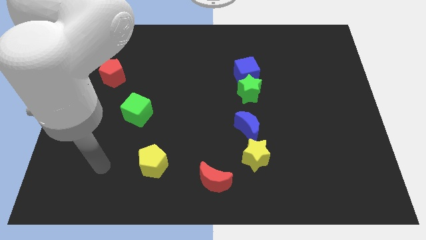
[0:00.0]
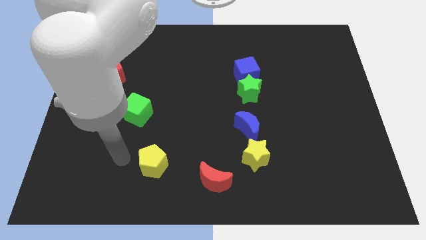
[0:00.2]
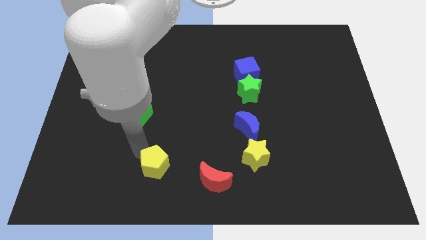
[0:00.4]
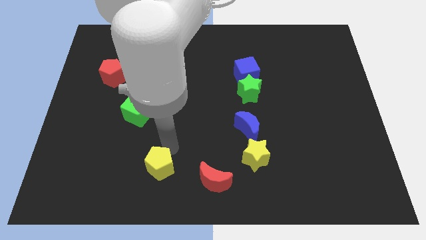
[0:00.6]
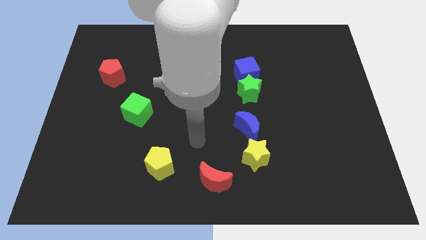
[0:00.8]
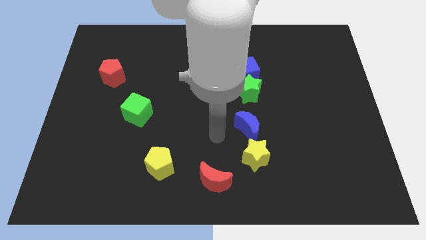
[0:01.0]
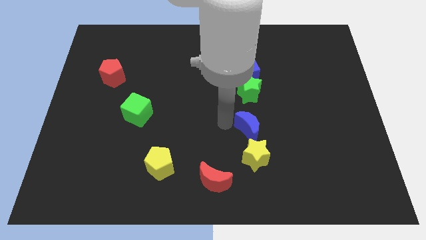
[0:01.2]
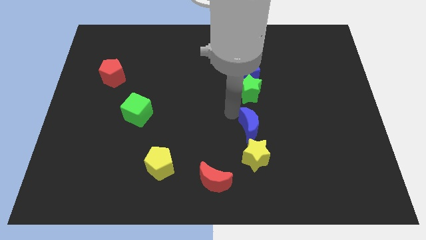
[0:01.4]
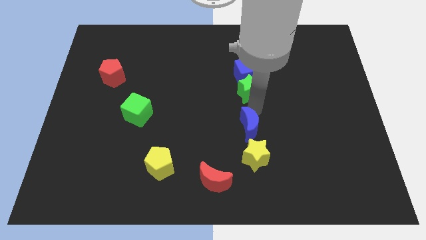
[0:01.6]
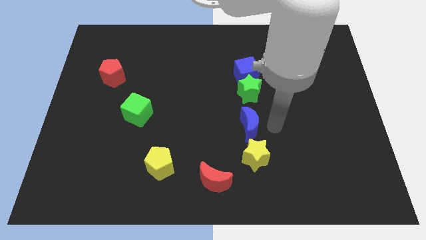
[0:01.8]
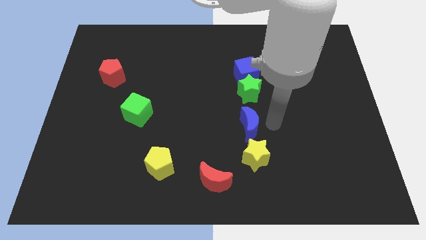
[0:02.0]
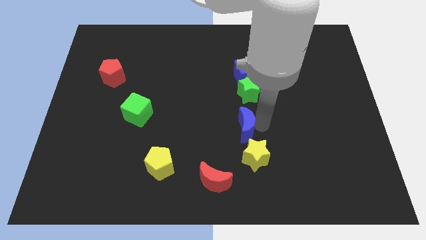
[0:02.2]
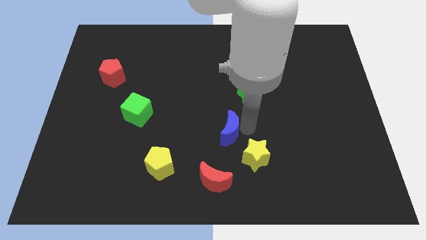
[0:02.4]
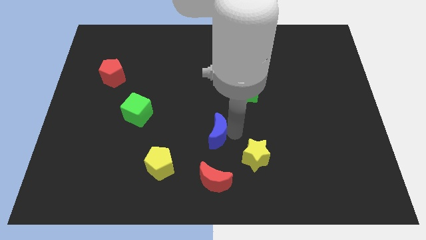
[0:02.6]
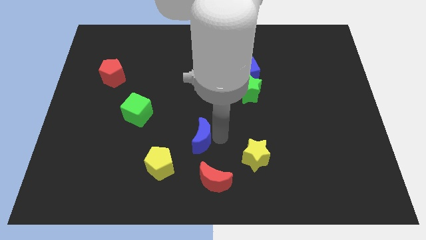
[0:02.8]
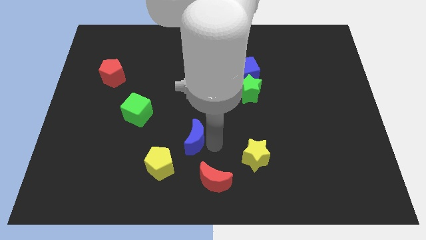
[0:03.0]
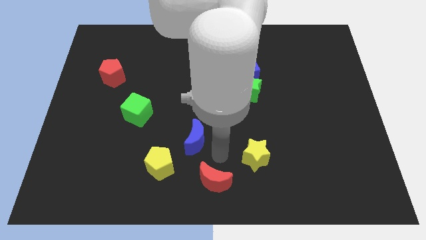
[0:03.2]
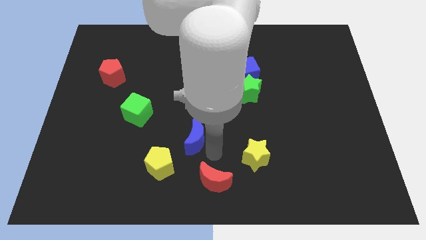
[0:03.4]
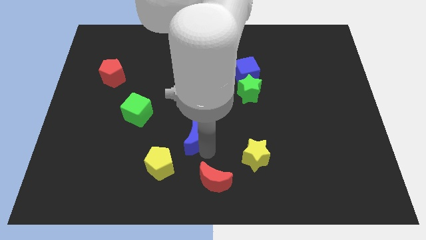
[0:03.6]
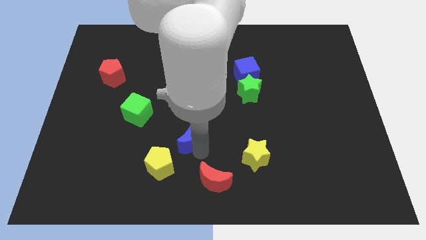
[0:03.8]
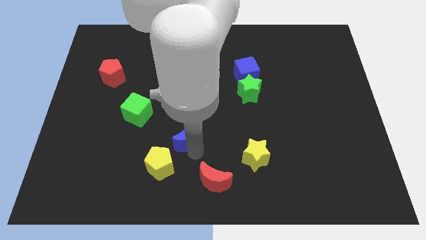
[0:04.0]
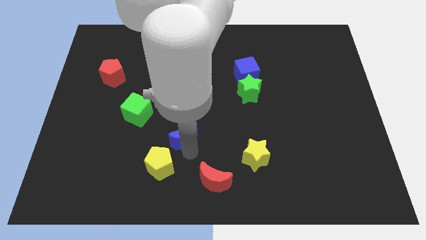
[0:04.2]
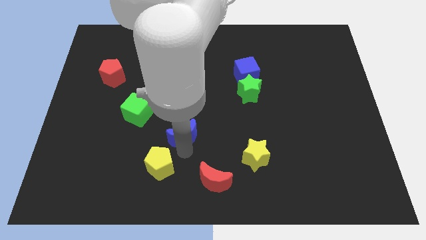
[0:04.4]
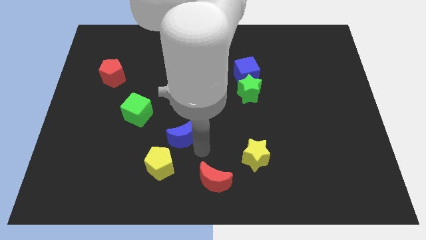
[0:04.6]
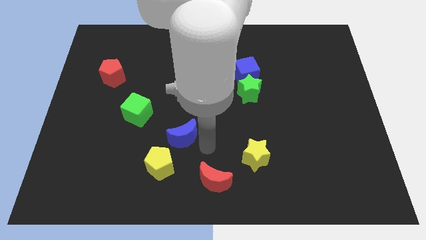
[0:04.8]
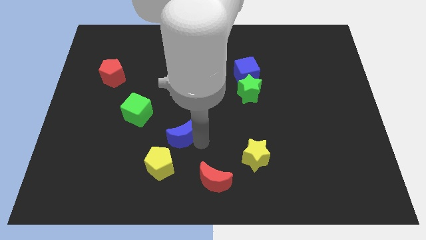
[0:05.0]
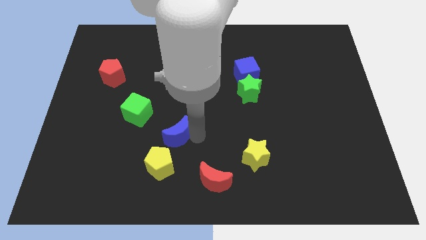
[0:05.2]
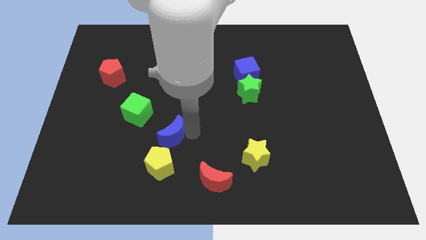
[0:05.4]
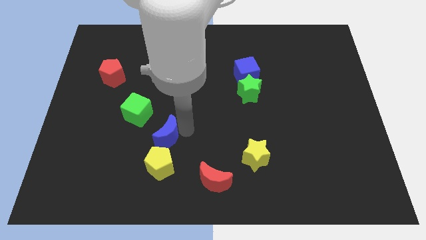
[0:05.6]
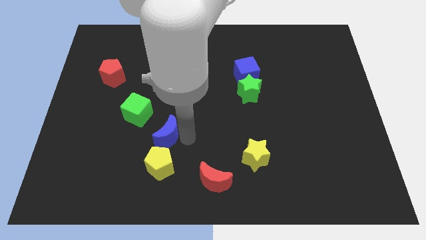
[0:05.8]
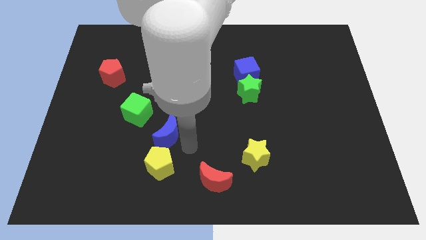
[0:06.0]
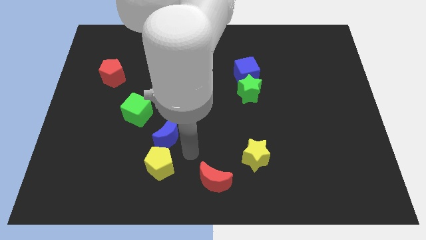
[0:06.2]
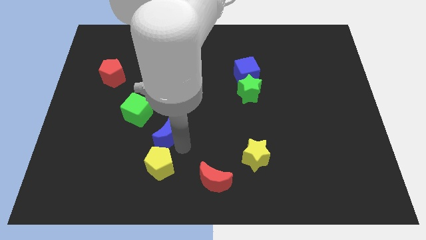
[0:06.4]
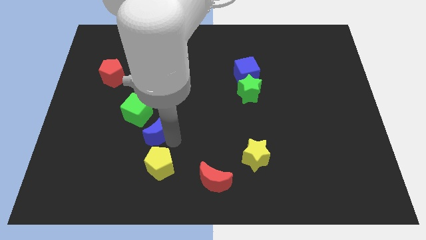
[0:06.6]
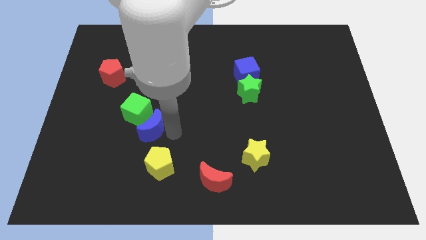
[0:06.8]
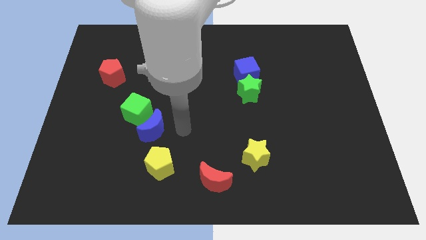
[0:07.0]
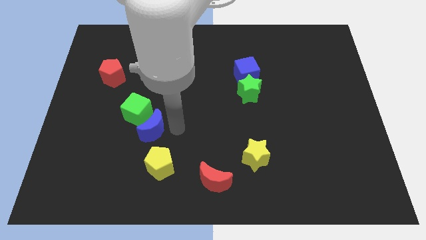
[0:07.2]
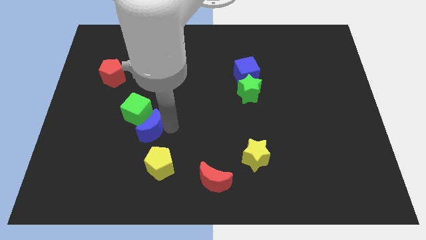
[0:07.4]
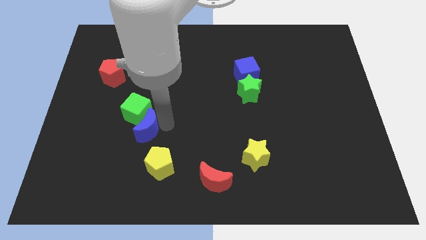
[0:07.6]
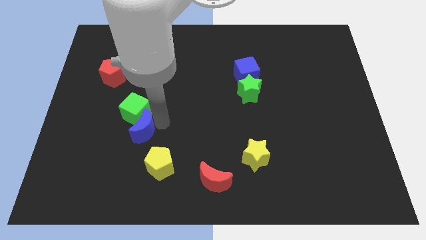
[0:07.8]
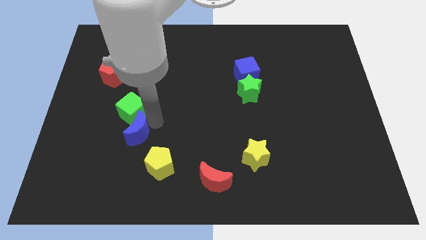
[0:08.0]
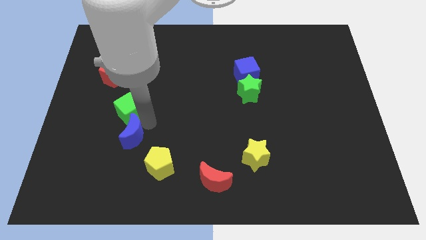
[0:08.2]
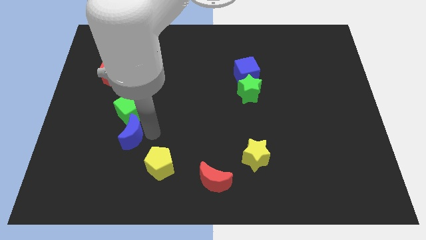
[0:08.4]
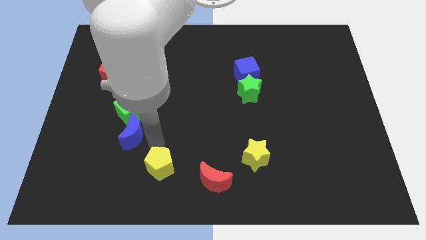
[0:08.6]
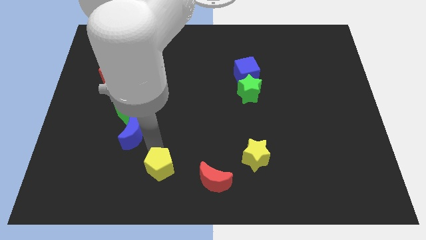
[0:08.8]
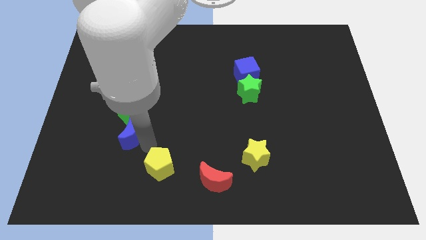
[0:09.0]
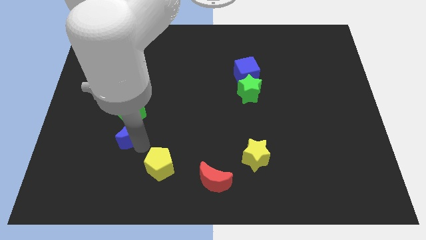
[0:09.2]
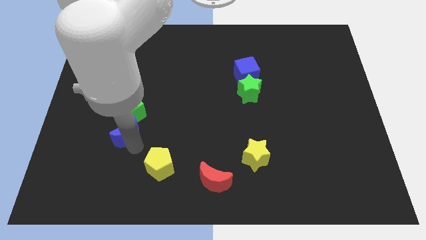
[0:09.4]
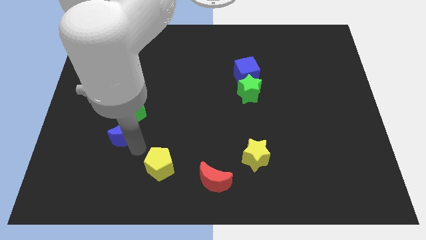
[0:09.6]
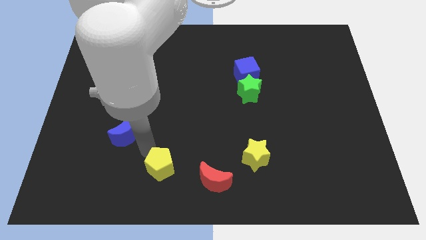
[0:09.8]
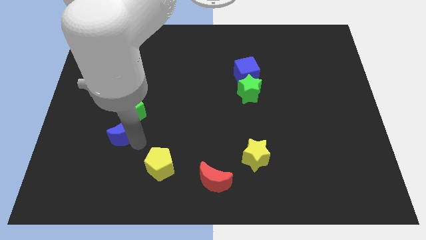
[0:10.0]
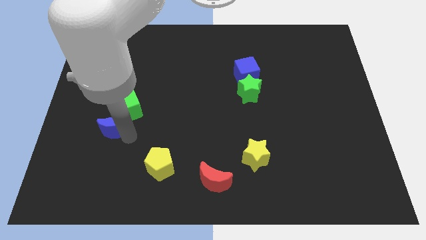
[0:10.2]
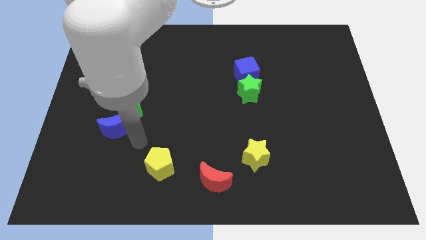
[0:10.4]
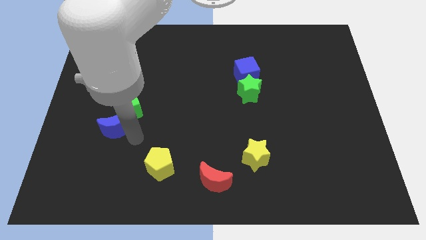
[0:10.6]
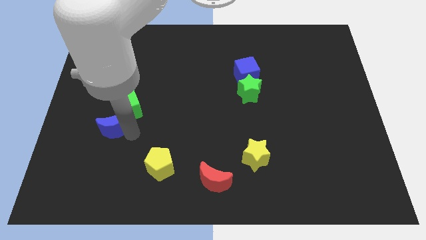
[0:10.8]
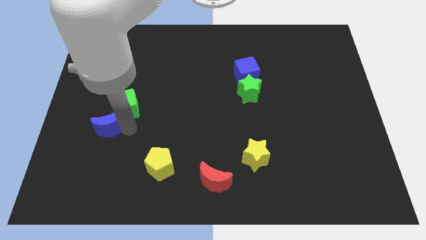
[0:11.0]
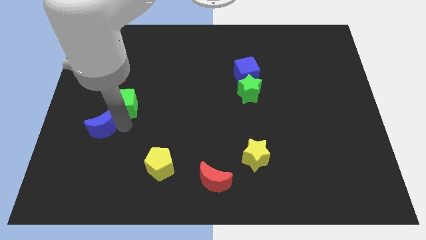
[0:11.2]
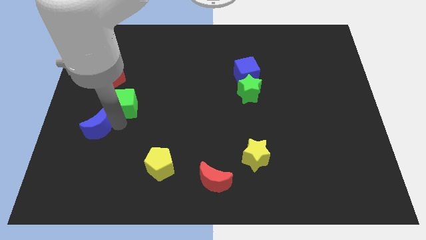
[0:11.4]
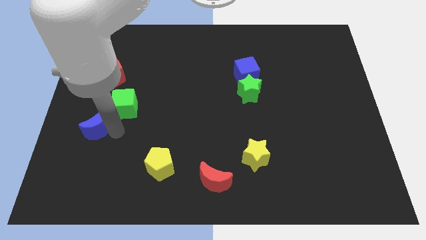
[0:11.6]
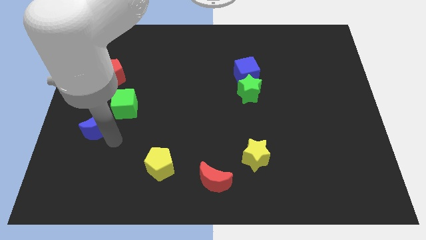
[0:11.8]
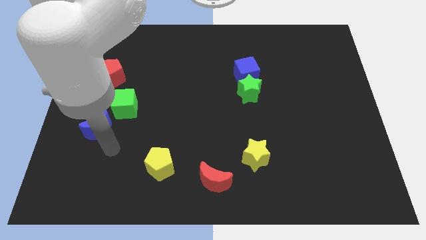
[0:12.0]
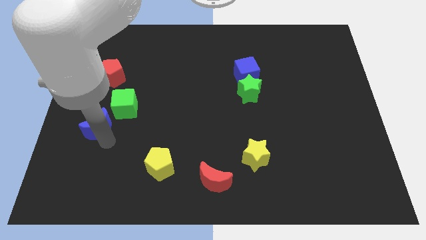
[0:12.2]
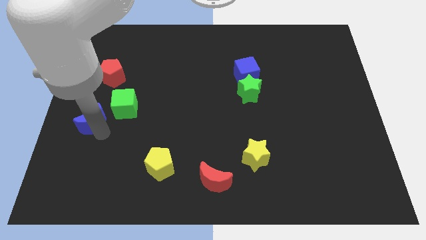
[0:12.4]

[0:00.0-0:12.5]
slide the blue moon to the center left

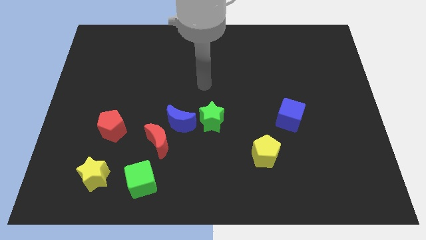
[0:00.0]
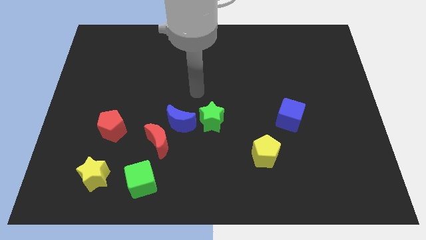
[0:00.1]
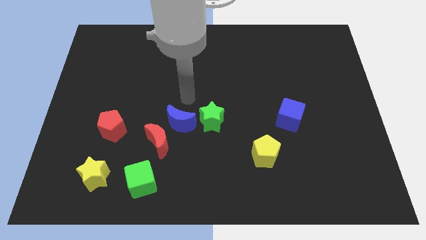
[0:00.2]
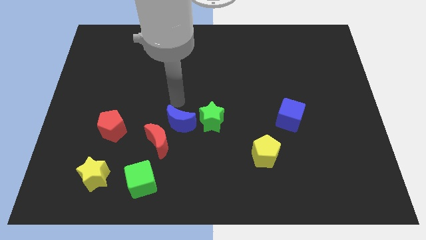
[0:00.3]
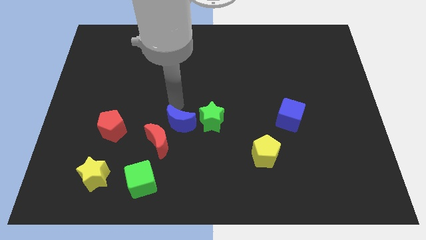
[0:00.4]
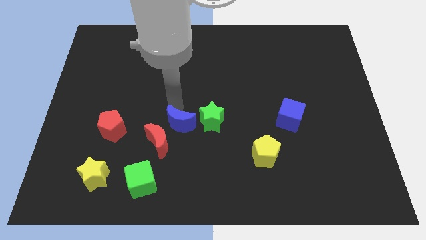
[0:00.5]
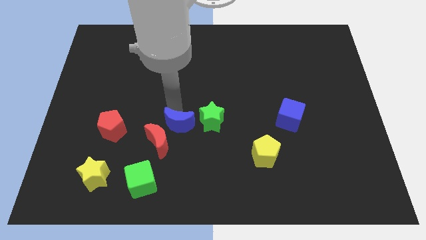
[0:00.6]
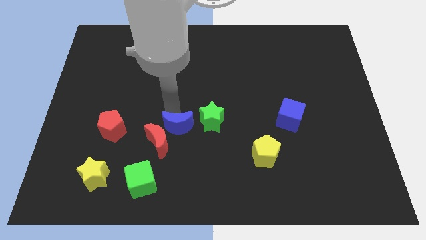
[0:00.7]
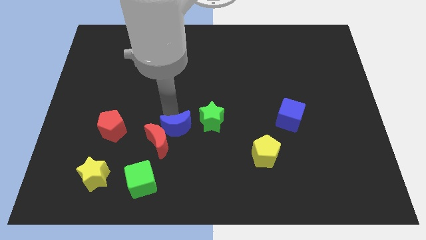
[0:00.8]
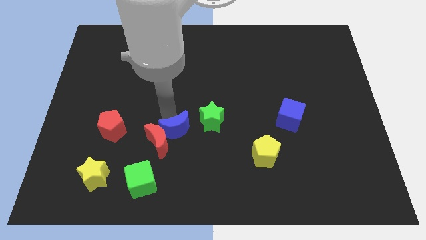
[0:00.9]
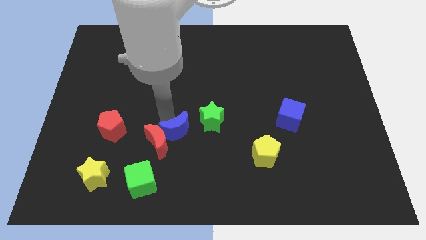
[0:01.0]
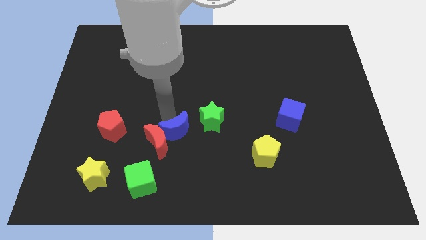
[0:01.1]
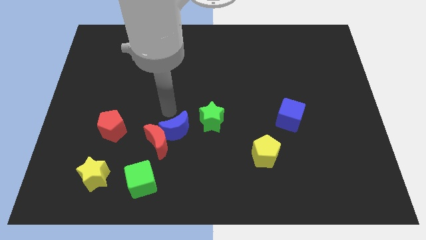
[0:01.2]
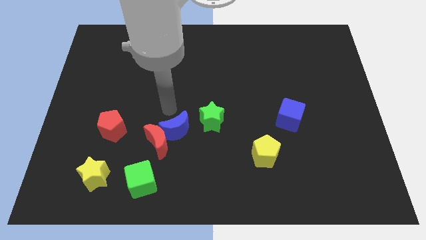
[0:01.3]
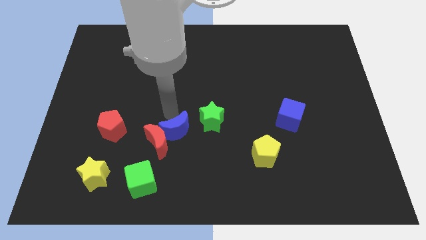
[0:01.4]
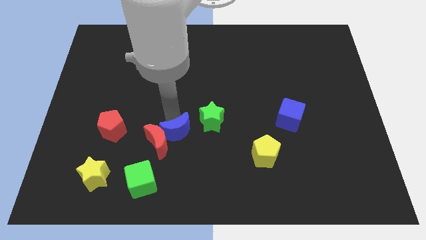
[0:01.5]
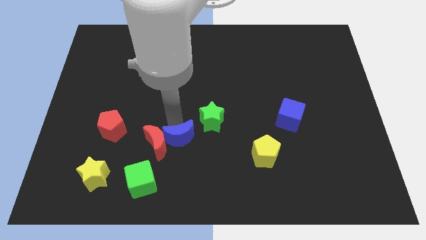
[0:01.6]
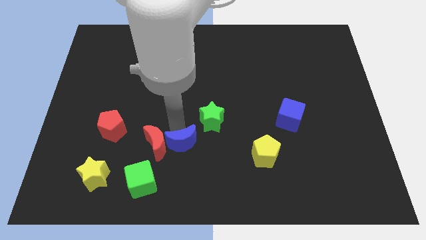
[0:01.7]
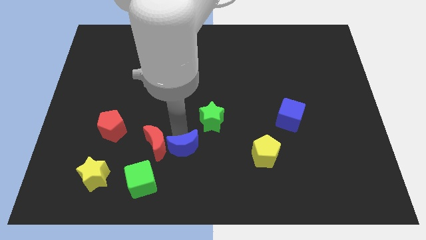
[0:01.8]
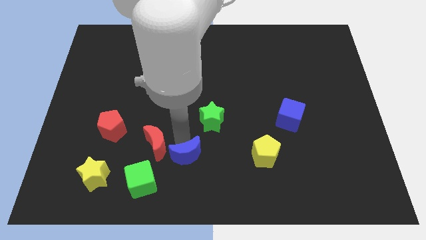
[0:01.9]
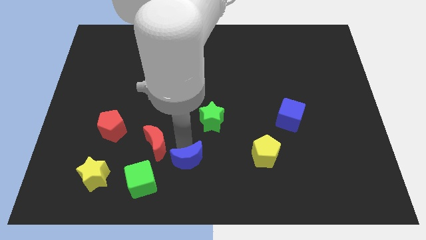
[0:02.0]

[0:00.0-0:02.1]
put the blue moon to the bottom side
